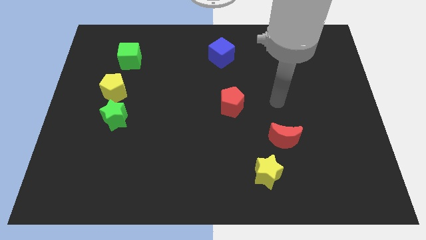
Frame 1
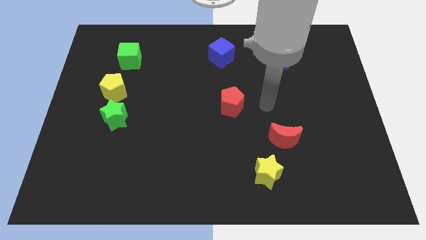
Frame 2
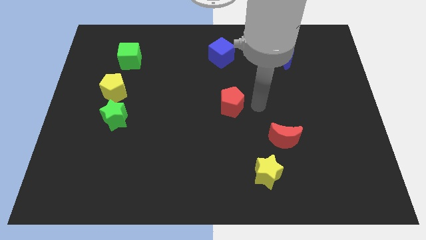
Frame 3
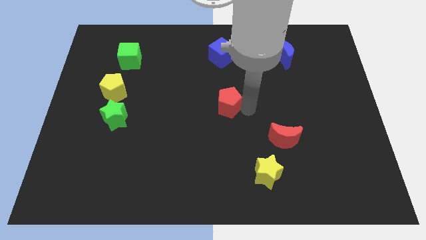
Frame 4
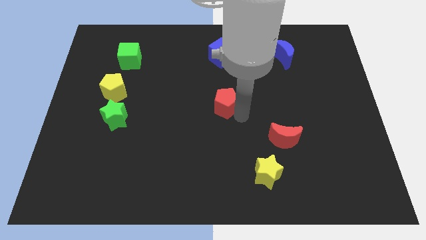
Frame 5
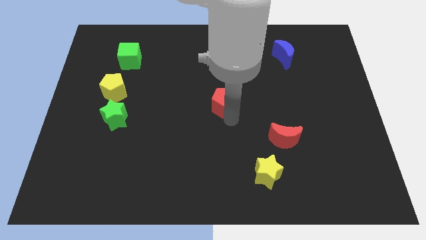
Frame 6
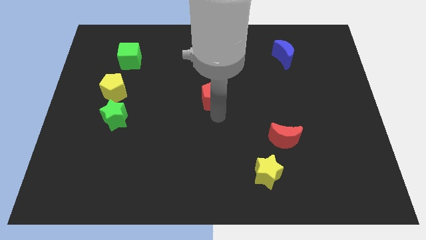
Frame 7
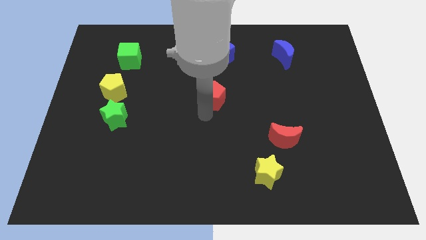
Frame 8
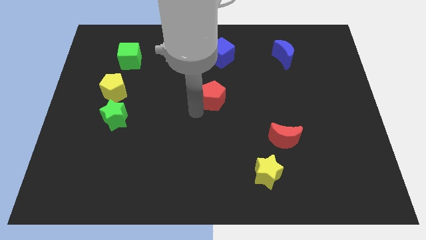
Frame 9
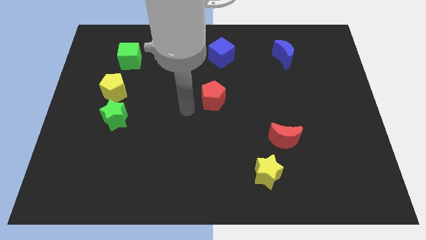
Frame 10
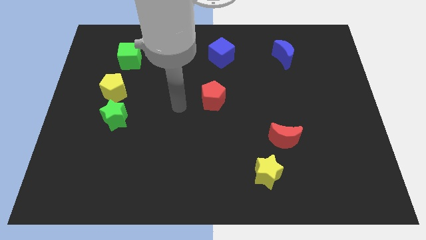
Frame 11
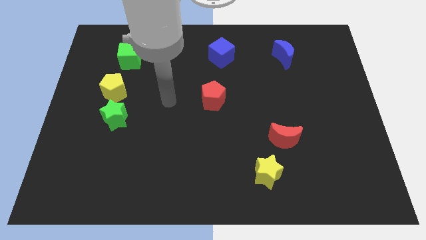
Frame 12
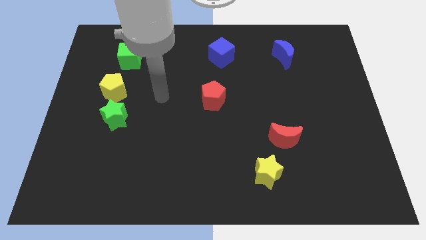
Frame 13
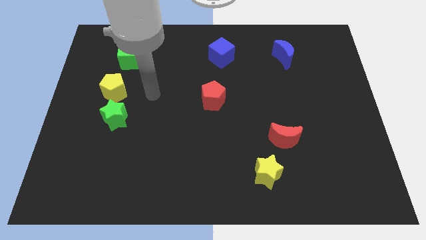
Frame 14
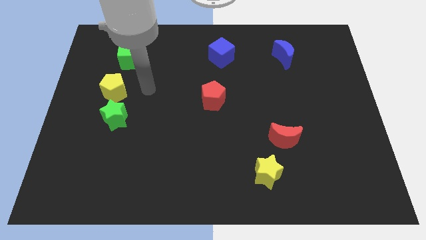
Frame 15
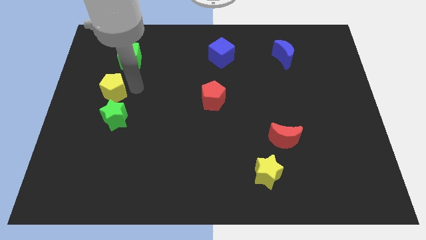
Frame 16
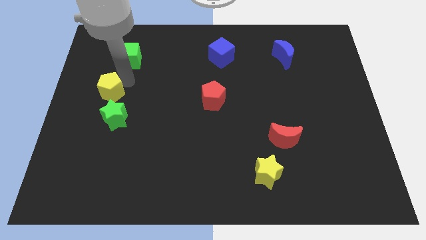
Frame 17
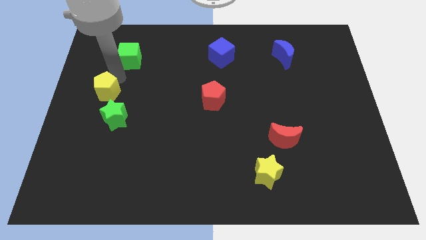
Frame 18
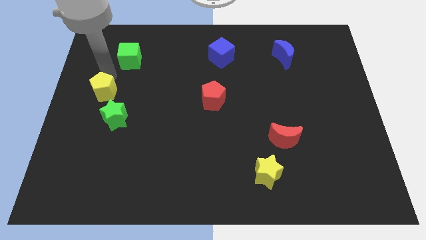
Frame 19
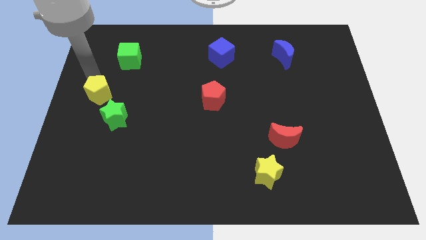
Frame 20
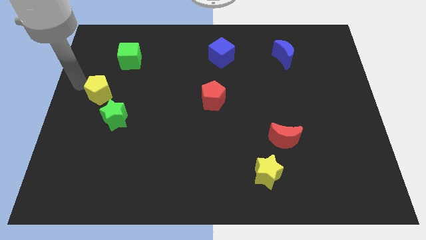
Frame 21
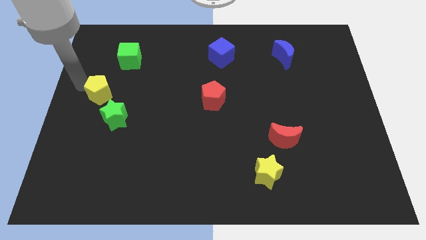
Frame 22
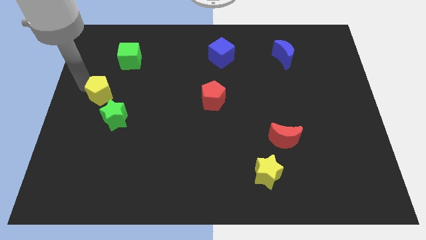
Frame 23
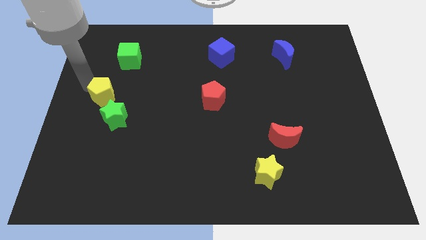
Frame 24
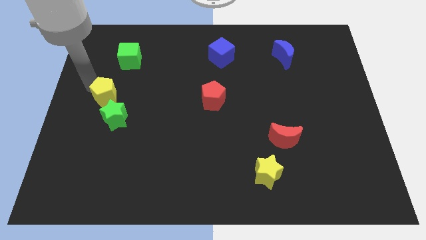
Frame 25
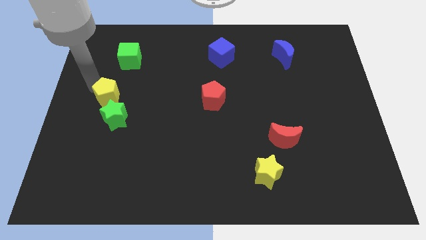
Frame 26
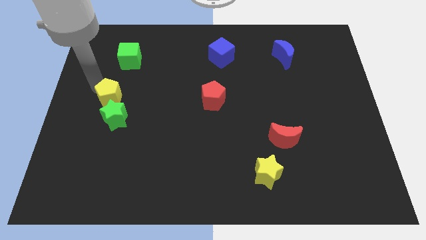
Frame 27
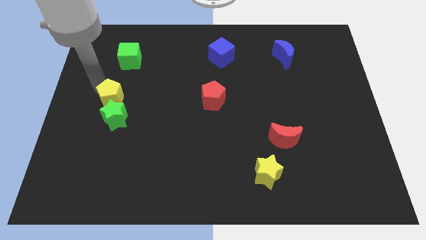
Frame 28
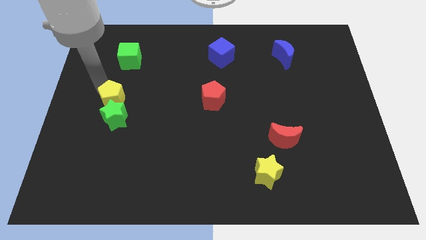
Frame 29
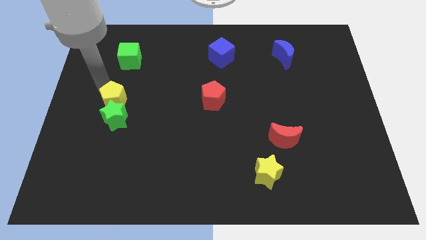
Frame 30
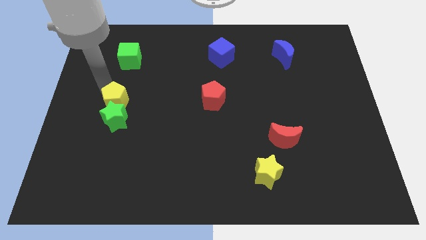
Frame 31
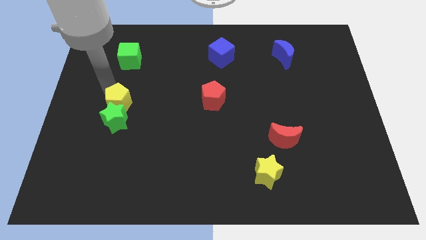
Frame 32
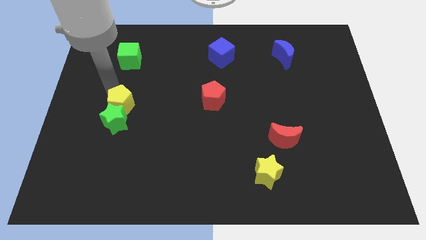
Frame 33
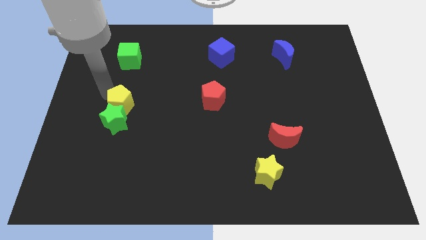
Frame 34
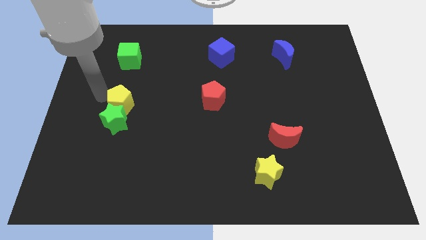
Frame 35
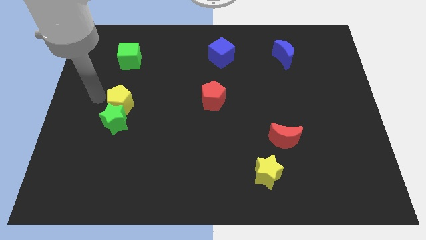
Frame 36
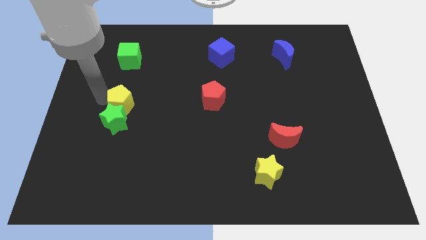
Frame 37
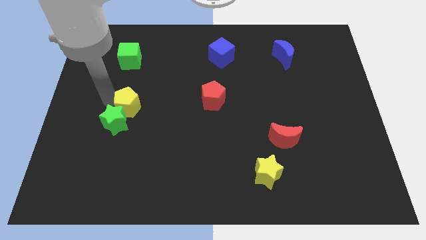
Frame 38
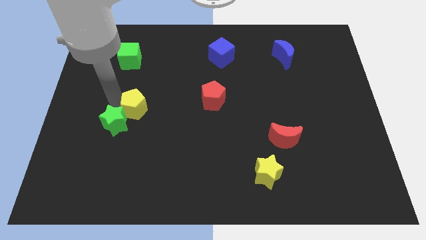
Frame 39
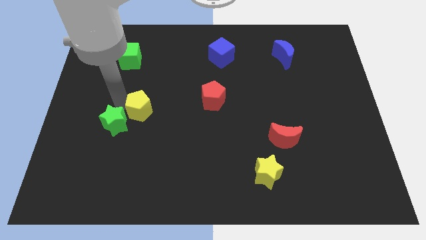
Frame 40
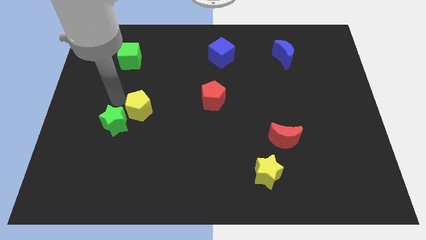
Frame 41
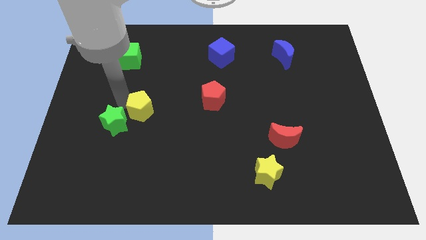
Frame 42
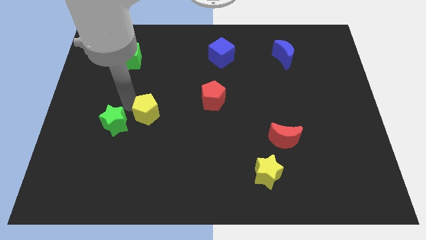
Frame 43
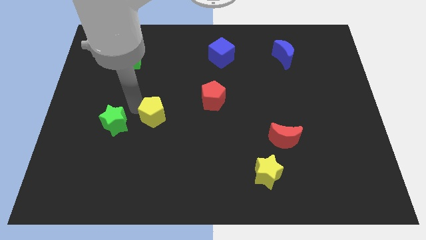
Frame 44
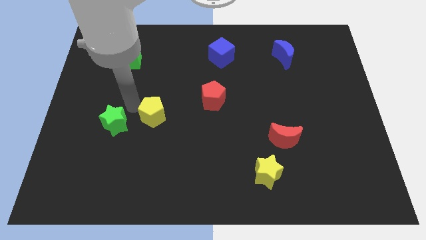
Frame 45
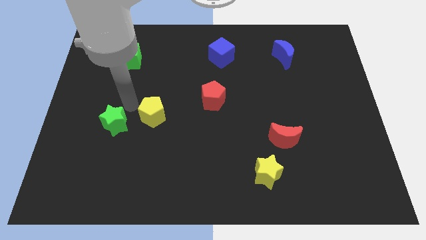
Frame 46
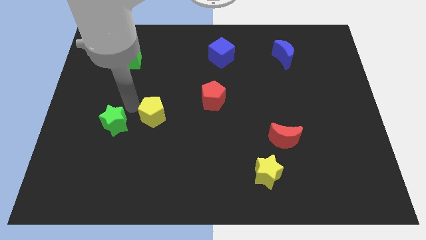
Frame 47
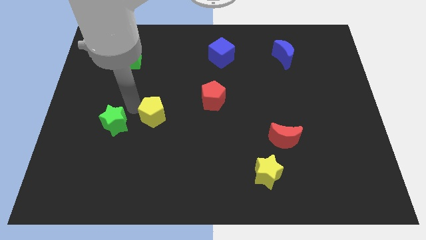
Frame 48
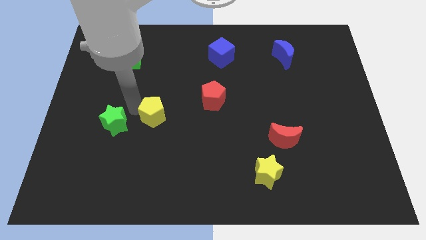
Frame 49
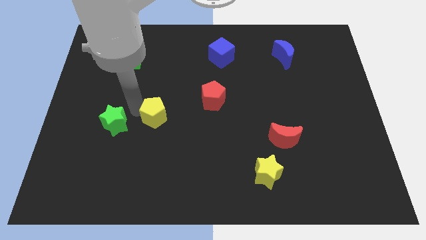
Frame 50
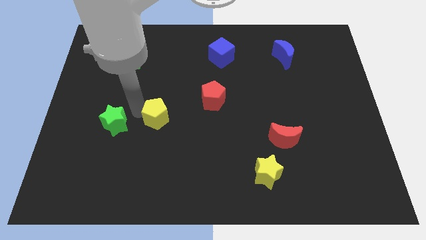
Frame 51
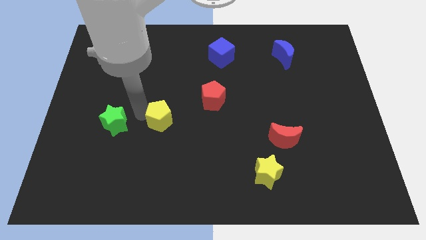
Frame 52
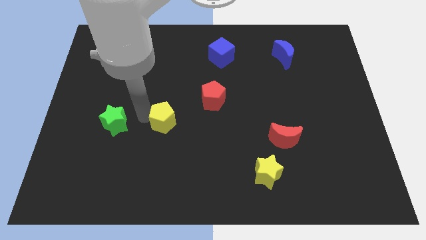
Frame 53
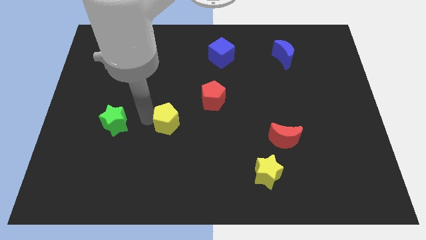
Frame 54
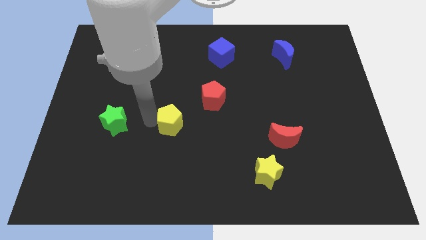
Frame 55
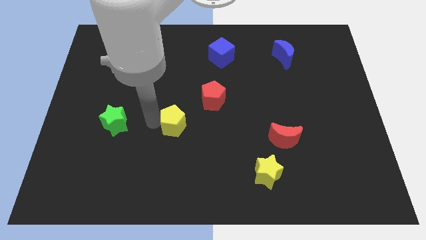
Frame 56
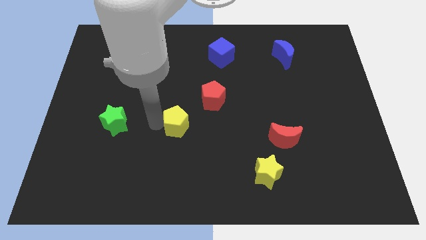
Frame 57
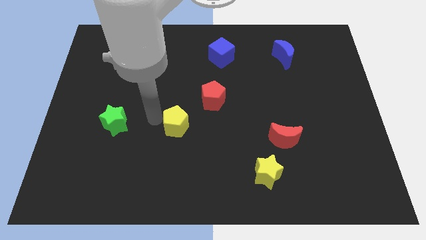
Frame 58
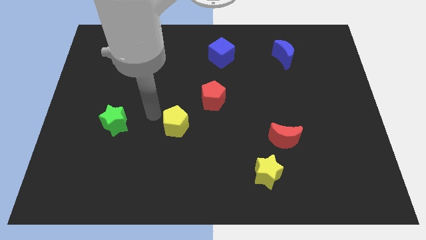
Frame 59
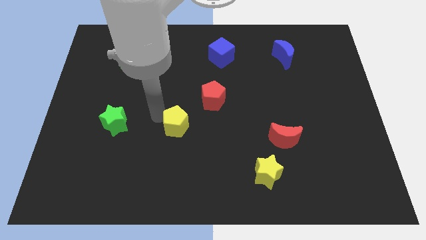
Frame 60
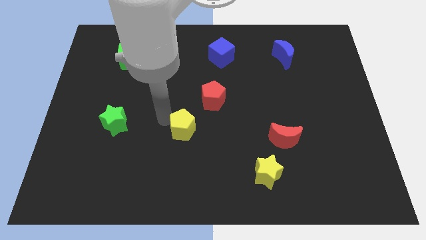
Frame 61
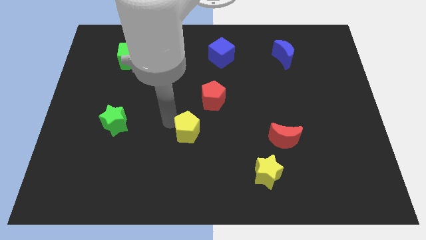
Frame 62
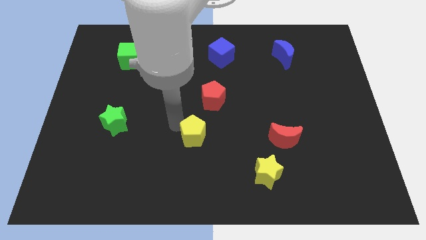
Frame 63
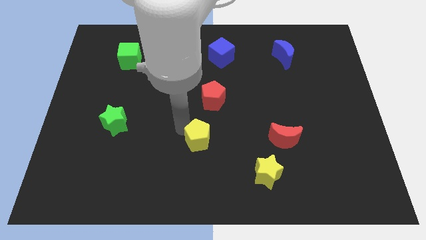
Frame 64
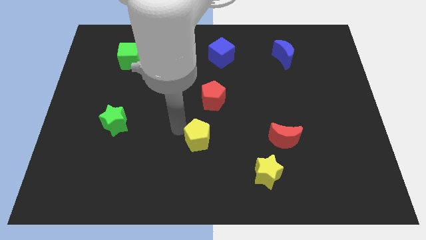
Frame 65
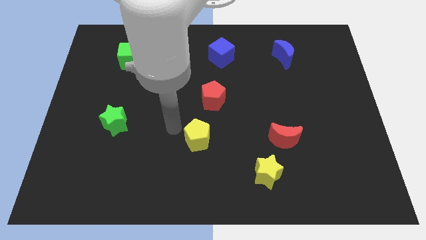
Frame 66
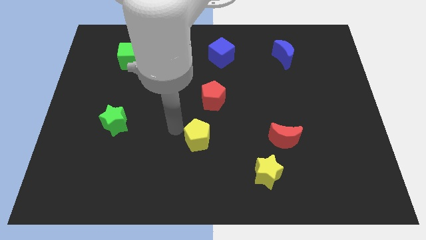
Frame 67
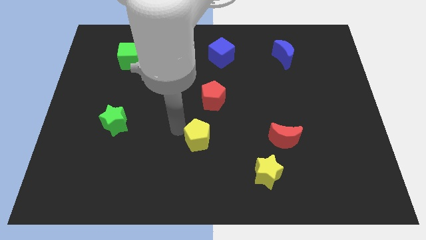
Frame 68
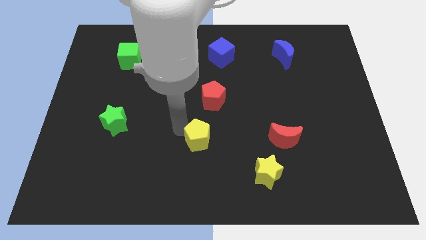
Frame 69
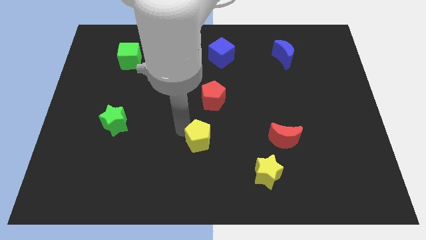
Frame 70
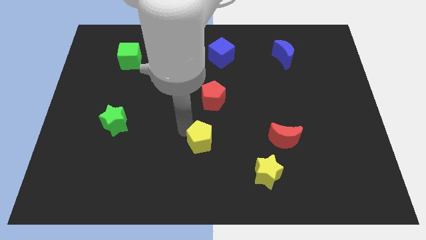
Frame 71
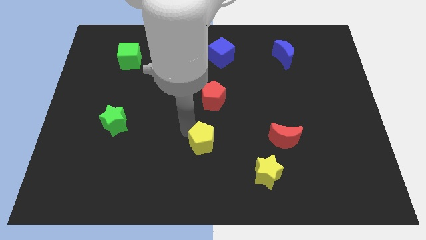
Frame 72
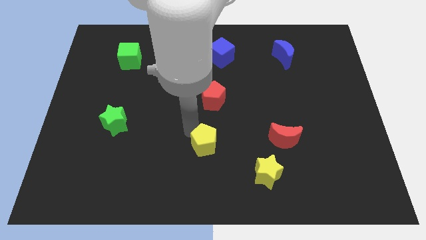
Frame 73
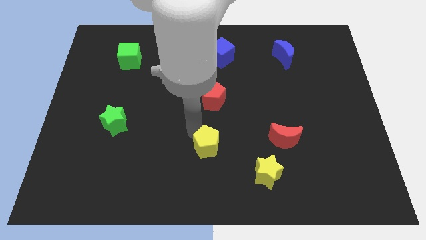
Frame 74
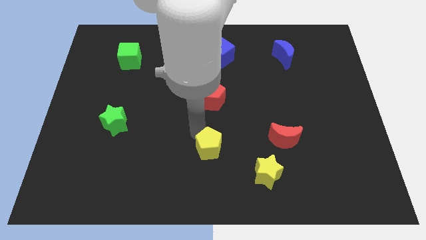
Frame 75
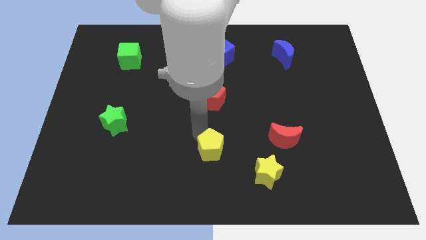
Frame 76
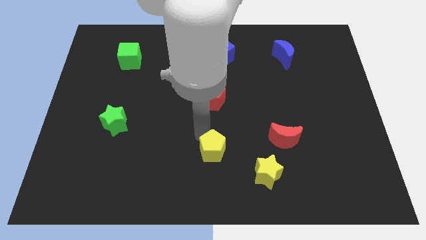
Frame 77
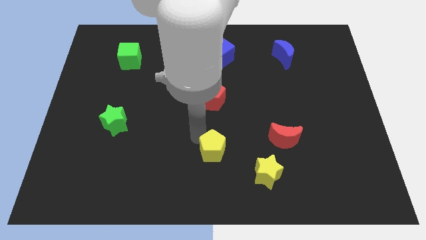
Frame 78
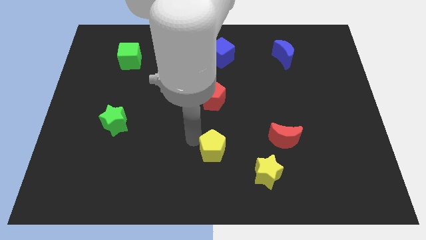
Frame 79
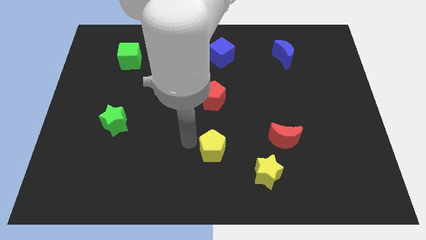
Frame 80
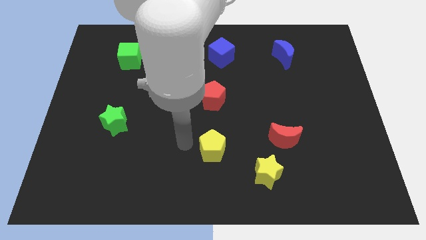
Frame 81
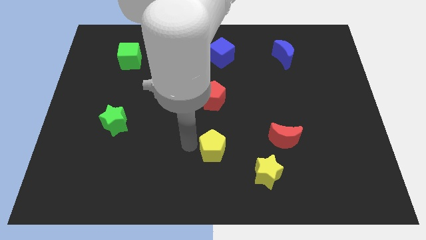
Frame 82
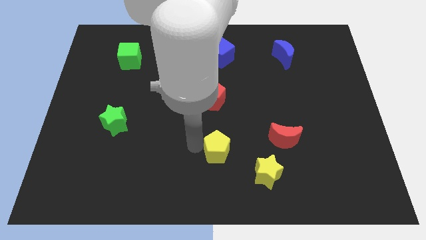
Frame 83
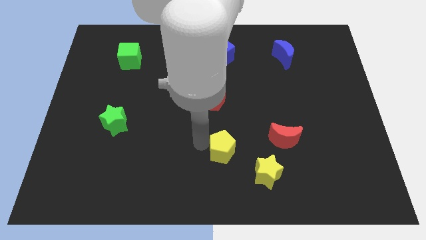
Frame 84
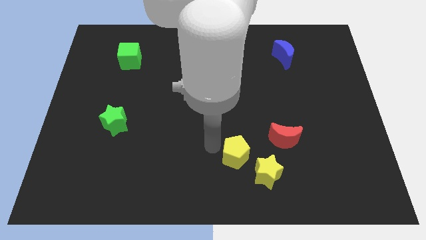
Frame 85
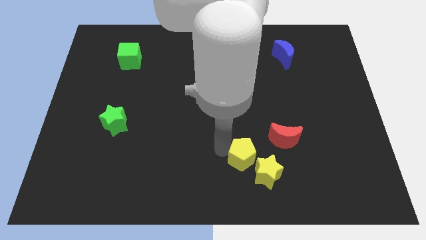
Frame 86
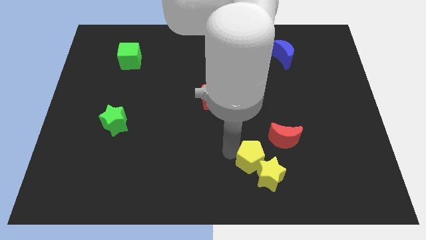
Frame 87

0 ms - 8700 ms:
push the yellow pentagon close to the yellow star
